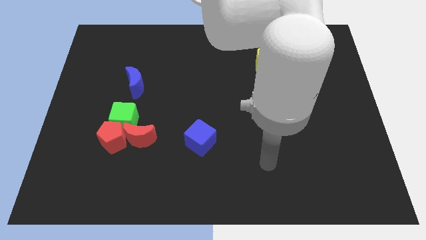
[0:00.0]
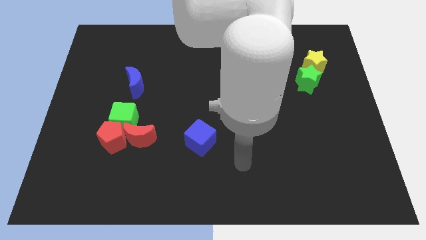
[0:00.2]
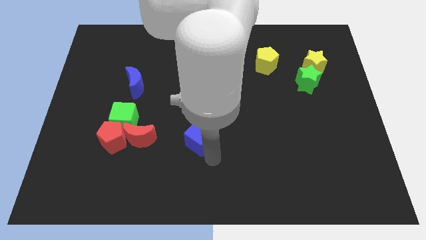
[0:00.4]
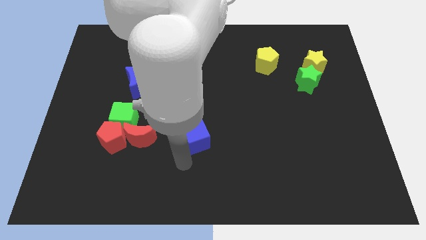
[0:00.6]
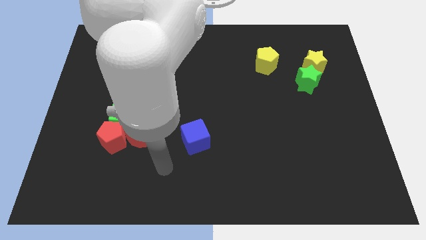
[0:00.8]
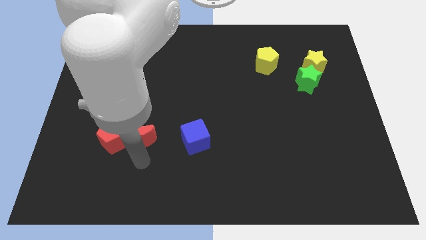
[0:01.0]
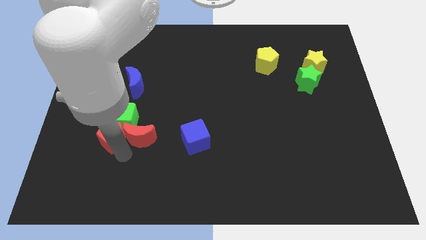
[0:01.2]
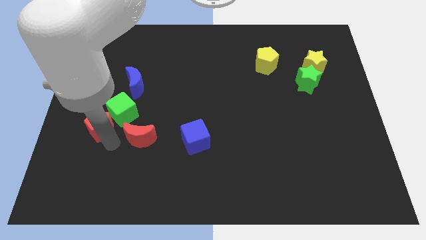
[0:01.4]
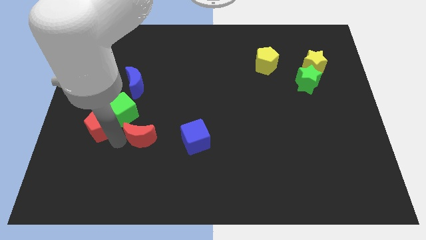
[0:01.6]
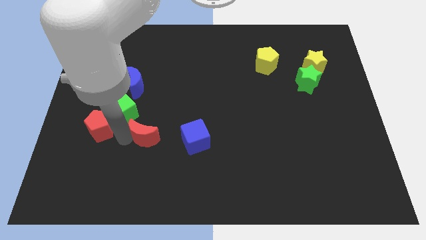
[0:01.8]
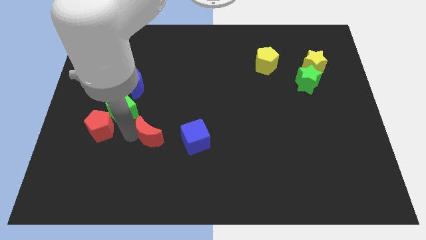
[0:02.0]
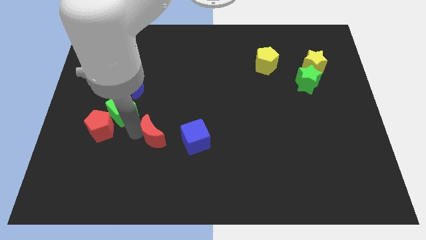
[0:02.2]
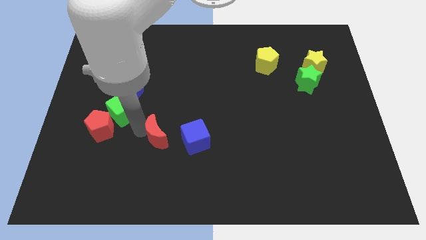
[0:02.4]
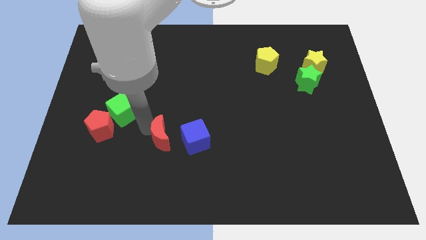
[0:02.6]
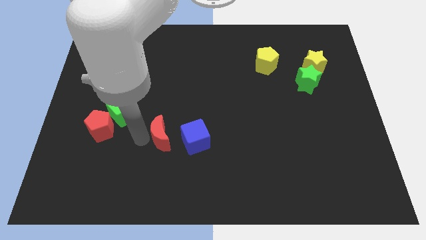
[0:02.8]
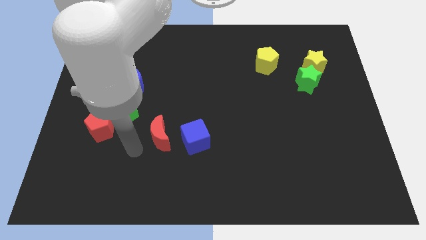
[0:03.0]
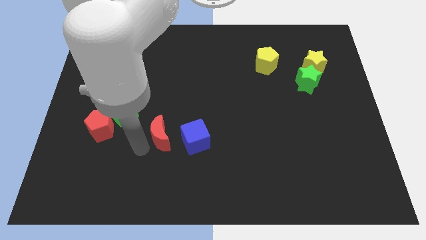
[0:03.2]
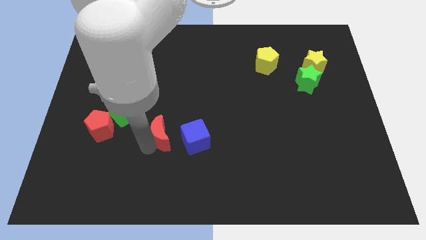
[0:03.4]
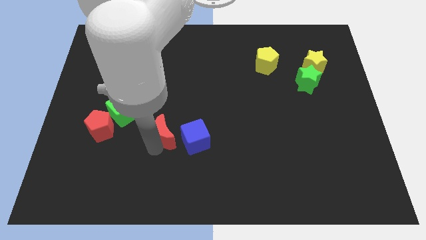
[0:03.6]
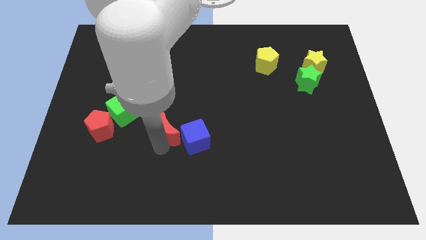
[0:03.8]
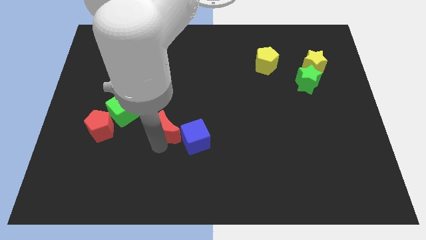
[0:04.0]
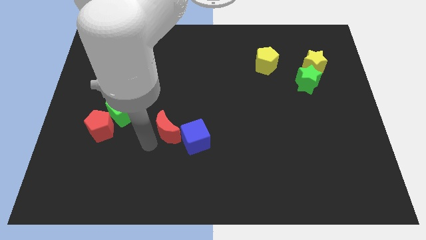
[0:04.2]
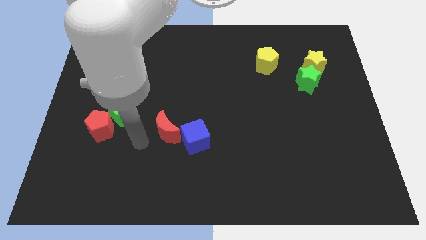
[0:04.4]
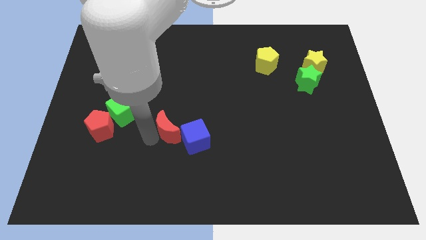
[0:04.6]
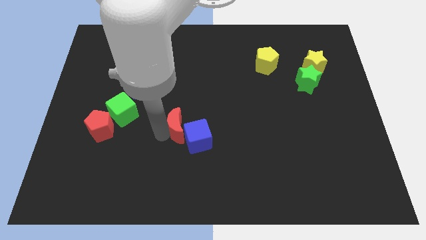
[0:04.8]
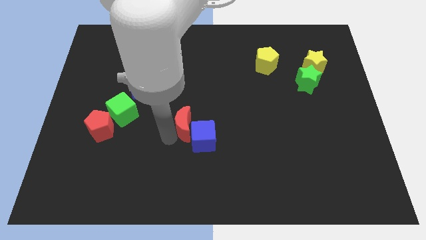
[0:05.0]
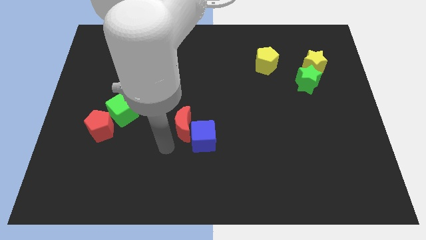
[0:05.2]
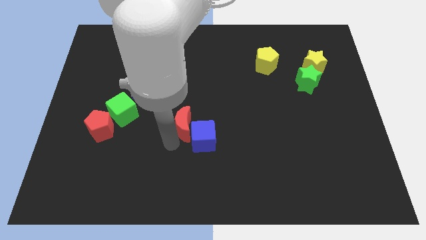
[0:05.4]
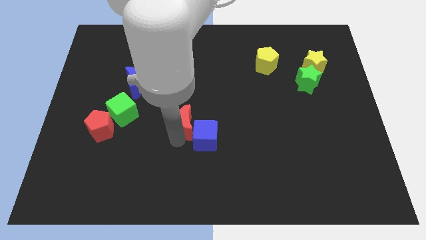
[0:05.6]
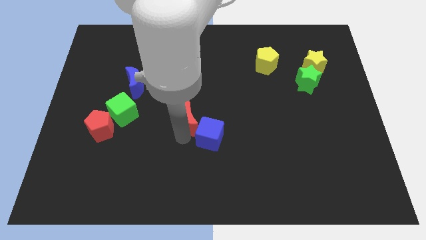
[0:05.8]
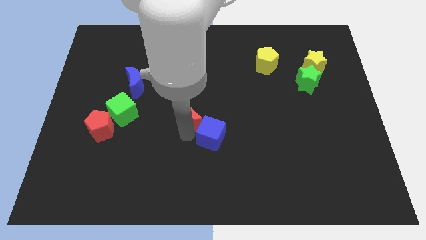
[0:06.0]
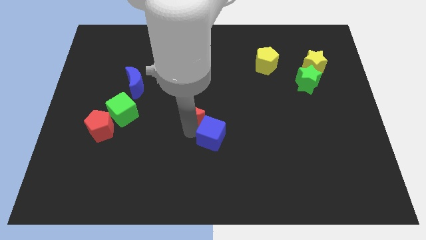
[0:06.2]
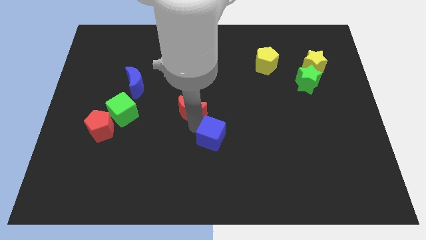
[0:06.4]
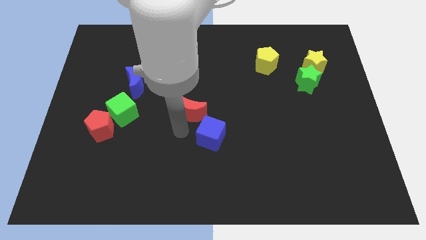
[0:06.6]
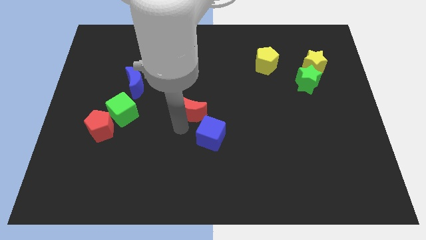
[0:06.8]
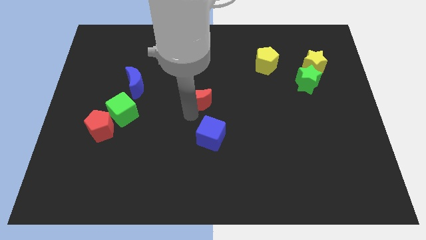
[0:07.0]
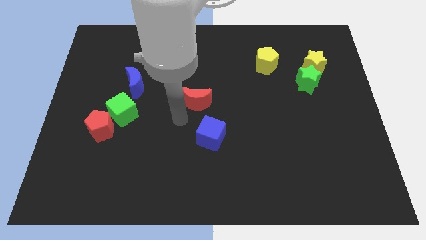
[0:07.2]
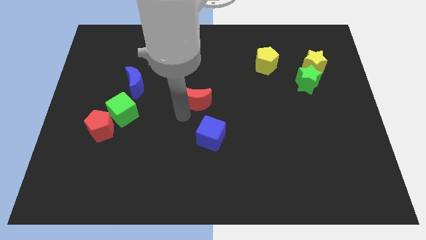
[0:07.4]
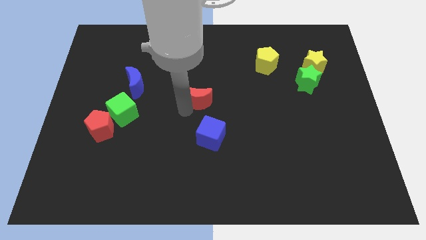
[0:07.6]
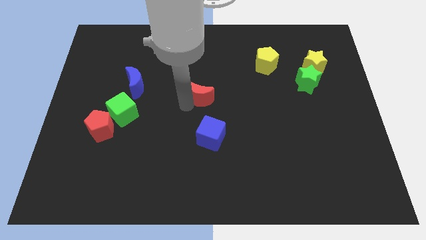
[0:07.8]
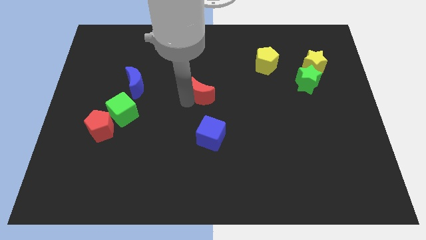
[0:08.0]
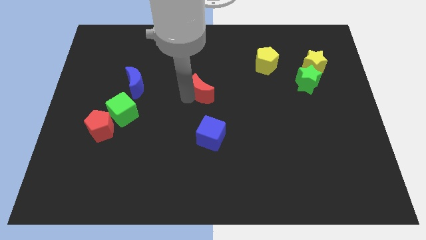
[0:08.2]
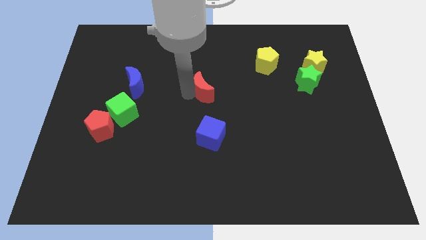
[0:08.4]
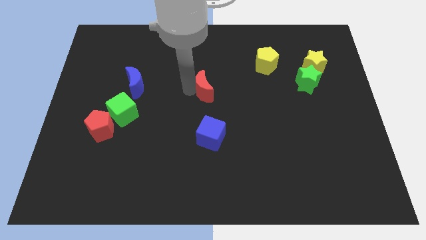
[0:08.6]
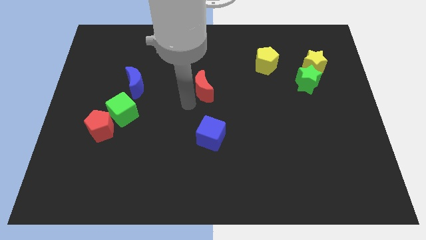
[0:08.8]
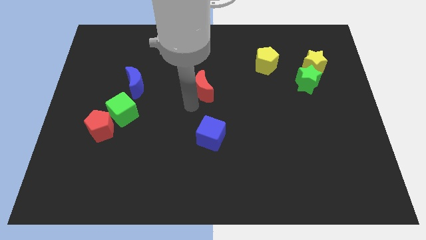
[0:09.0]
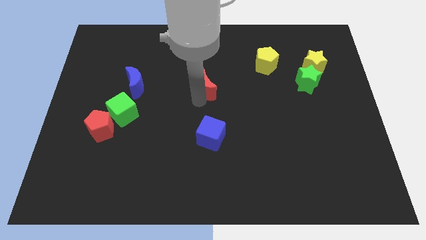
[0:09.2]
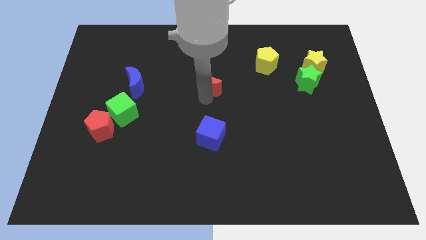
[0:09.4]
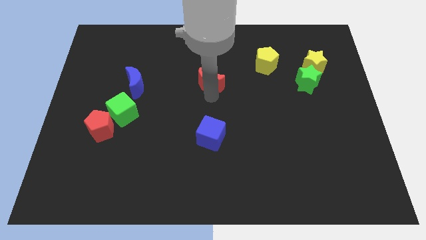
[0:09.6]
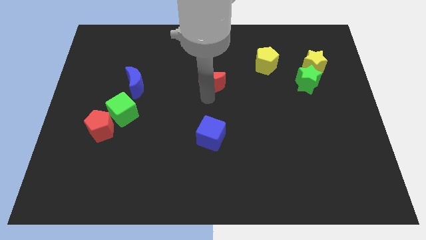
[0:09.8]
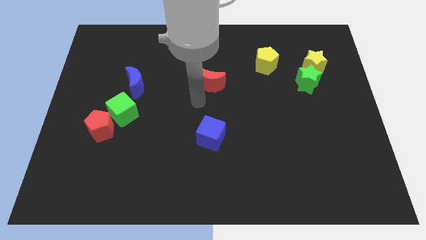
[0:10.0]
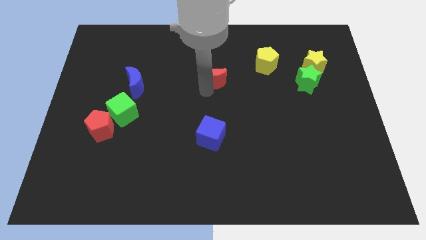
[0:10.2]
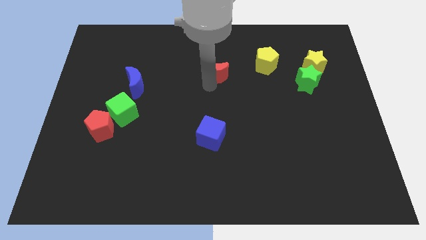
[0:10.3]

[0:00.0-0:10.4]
slide the red moon just left of the yellow pentagon

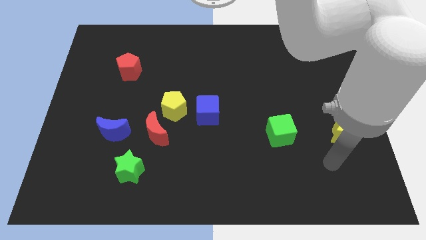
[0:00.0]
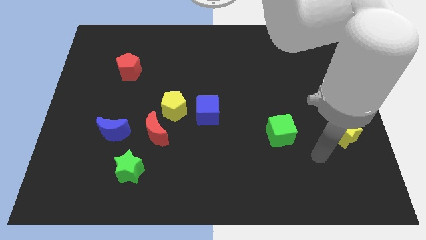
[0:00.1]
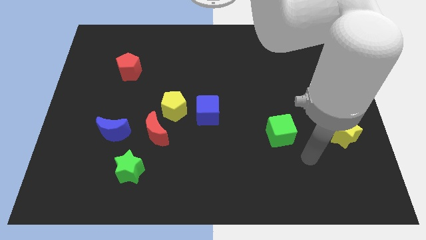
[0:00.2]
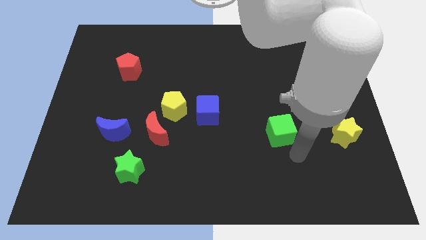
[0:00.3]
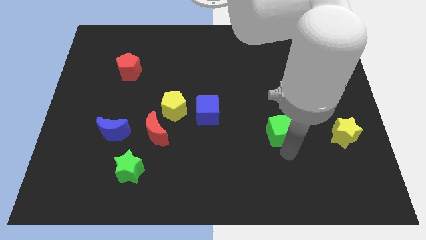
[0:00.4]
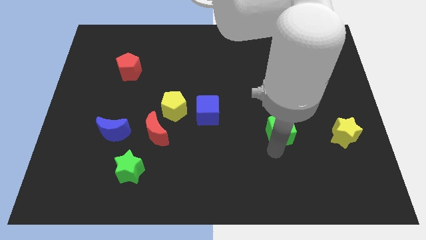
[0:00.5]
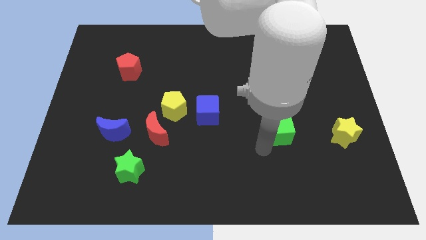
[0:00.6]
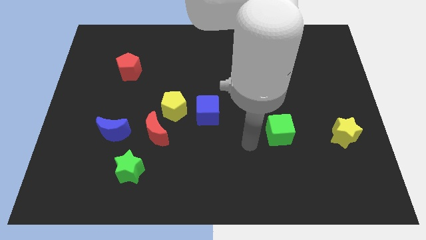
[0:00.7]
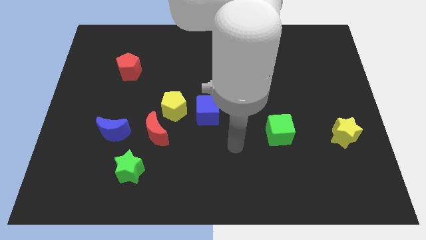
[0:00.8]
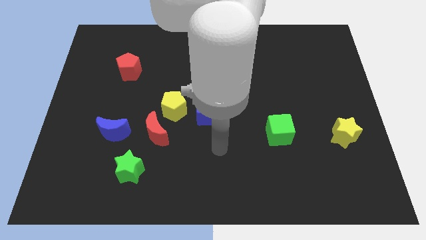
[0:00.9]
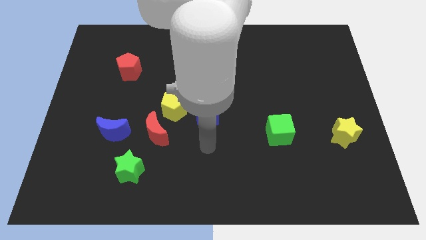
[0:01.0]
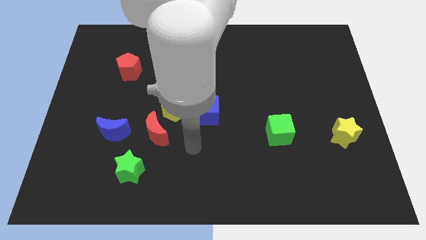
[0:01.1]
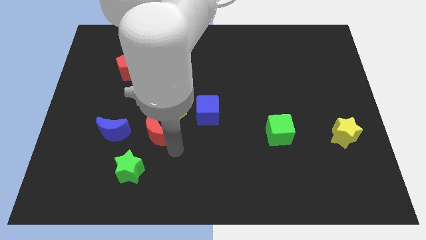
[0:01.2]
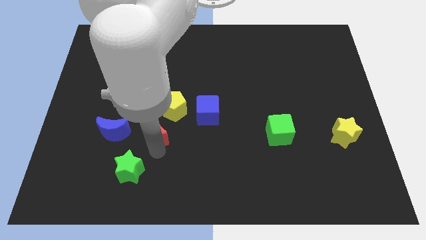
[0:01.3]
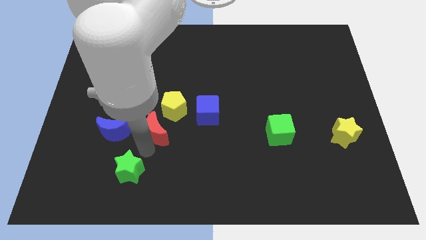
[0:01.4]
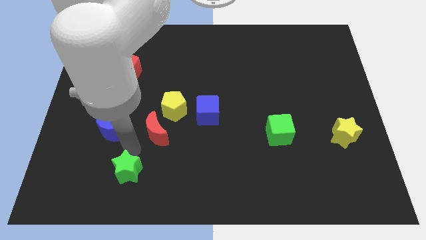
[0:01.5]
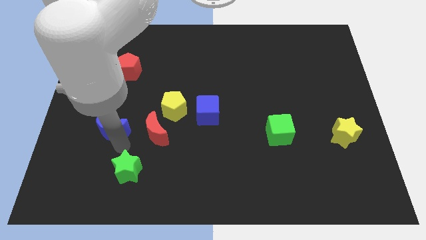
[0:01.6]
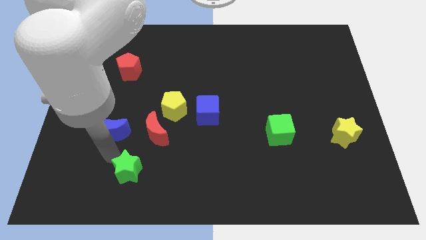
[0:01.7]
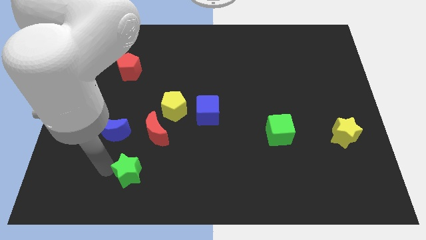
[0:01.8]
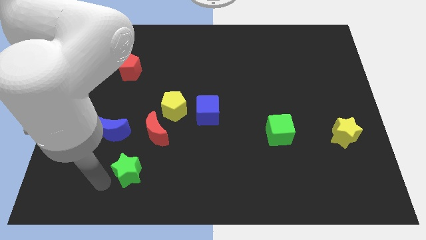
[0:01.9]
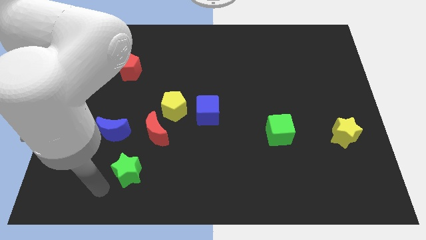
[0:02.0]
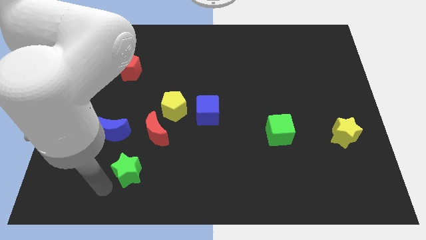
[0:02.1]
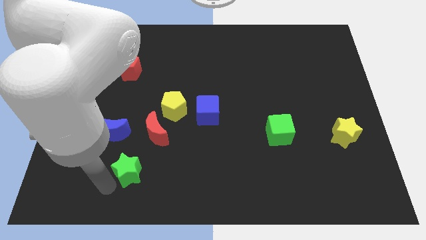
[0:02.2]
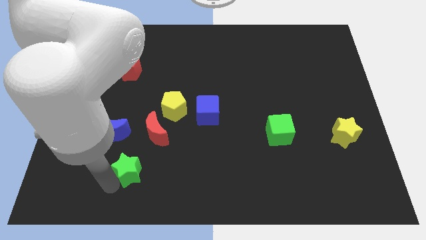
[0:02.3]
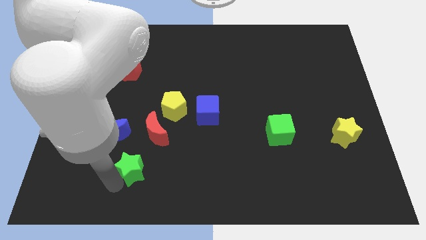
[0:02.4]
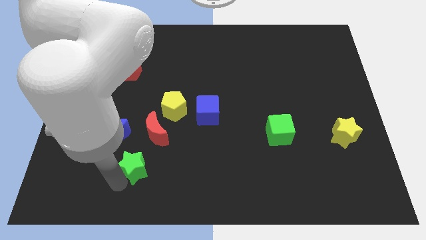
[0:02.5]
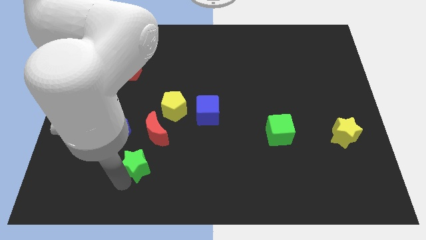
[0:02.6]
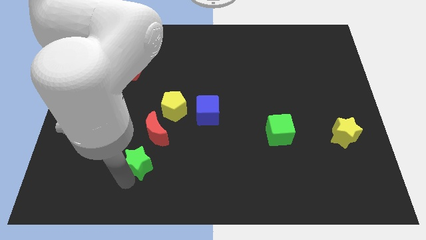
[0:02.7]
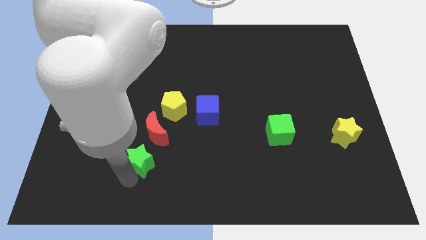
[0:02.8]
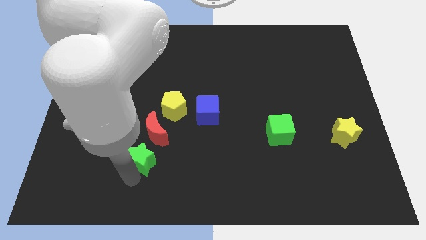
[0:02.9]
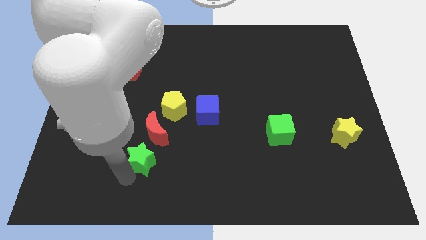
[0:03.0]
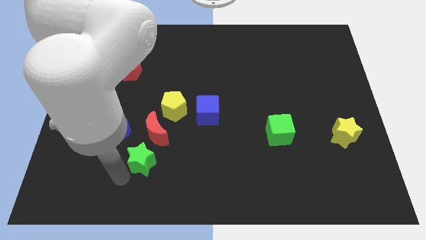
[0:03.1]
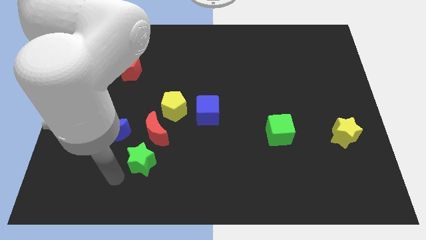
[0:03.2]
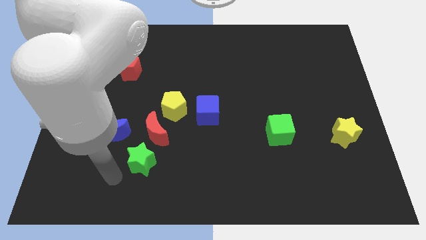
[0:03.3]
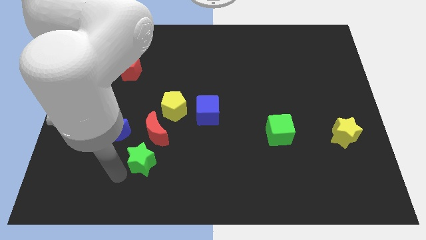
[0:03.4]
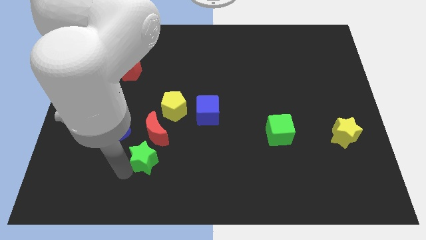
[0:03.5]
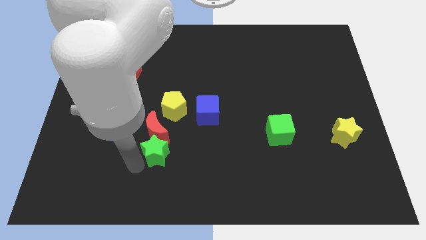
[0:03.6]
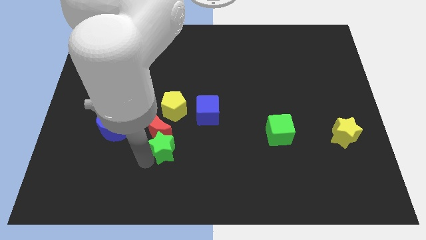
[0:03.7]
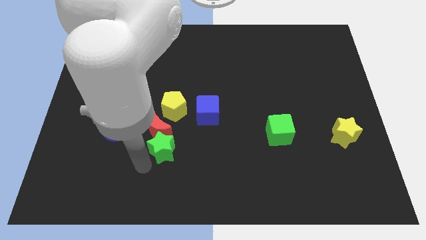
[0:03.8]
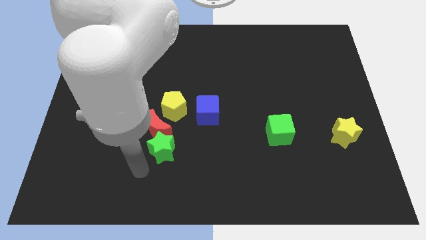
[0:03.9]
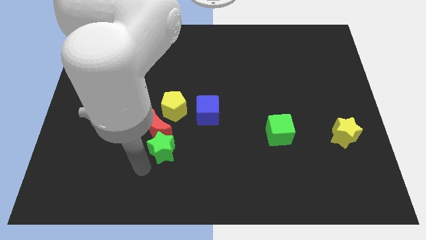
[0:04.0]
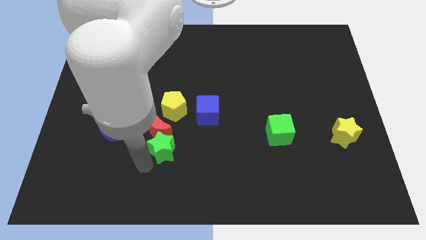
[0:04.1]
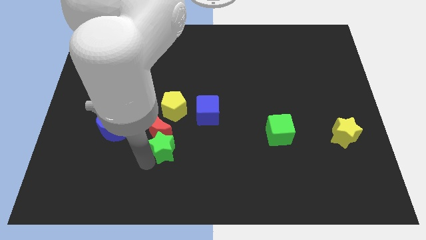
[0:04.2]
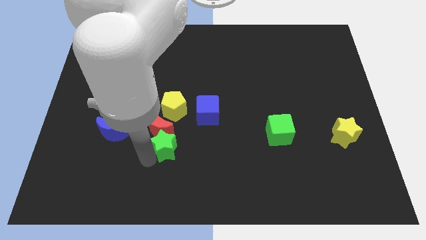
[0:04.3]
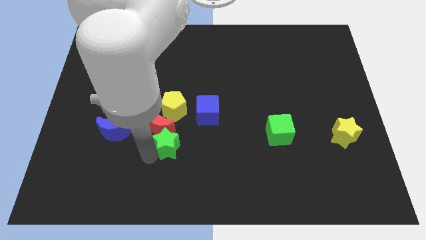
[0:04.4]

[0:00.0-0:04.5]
put the green star to the bottom left side of the blue cube
